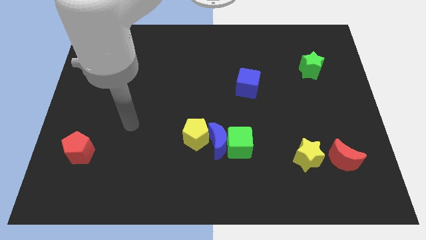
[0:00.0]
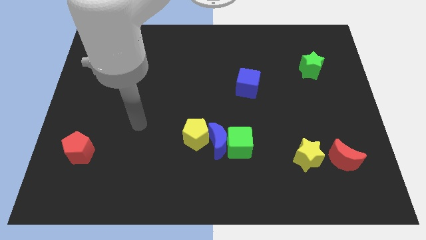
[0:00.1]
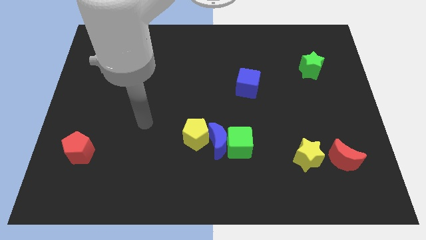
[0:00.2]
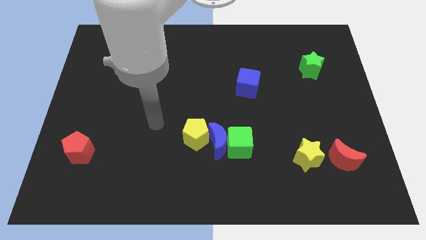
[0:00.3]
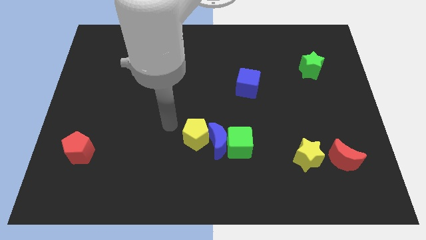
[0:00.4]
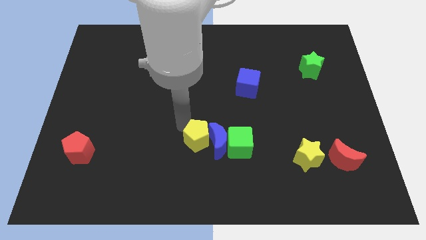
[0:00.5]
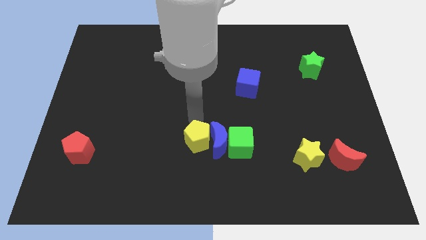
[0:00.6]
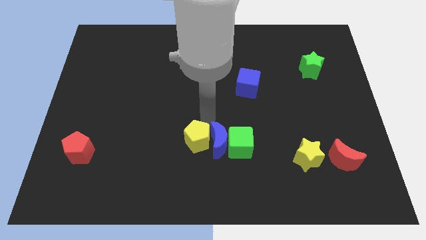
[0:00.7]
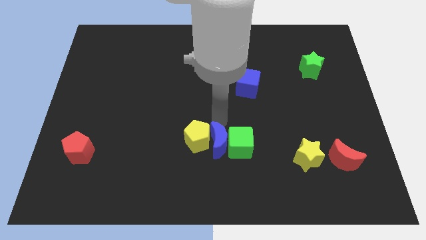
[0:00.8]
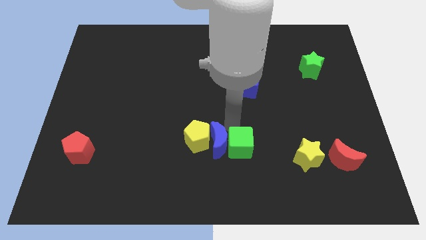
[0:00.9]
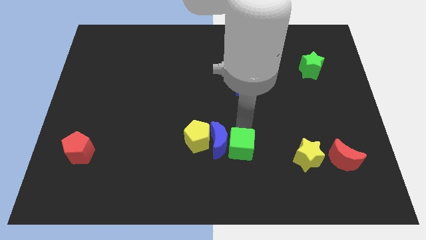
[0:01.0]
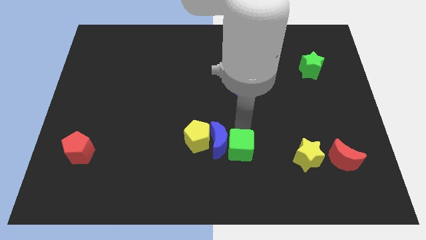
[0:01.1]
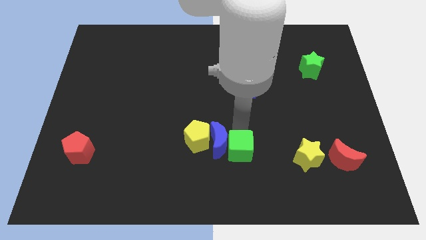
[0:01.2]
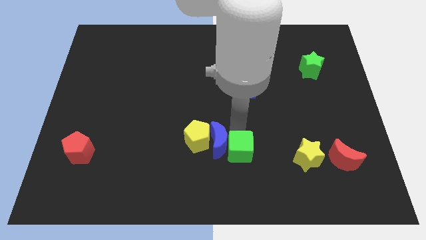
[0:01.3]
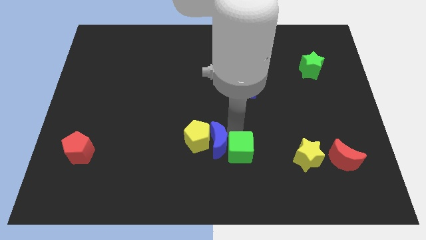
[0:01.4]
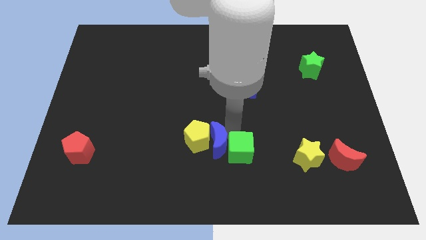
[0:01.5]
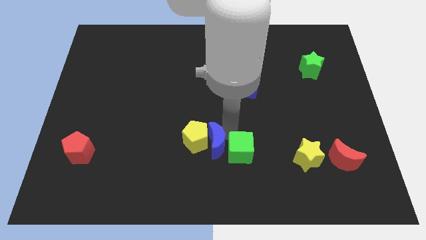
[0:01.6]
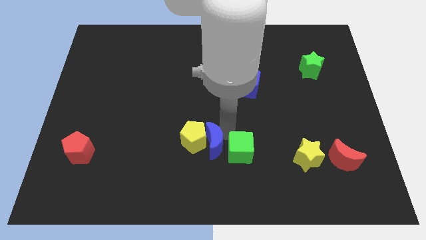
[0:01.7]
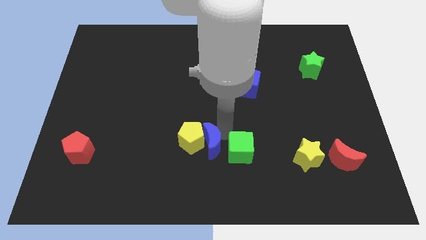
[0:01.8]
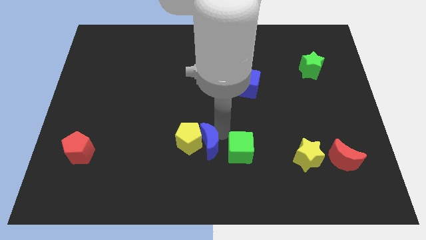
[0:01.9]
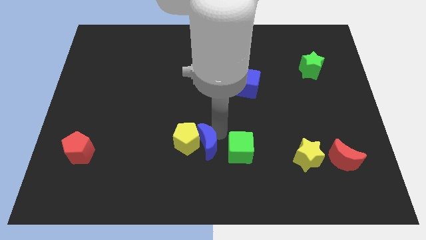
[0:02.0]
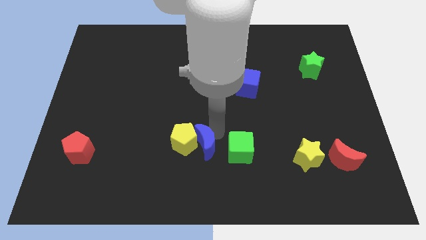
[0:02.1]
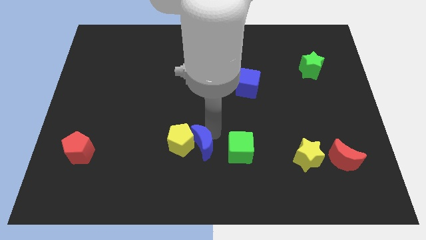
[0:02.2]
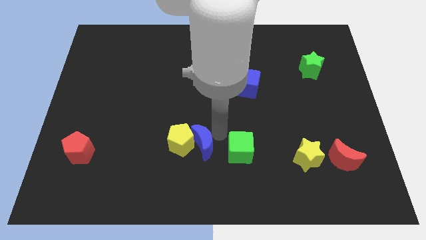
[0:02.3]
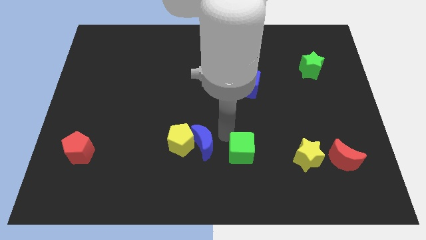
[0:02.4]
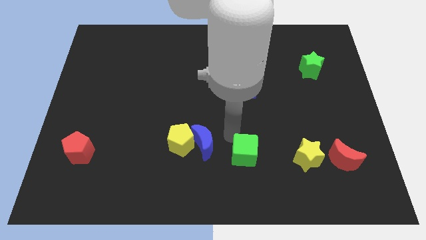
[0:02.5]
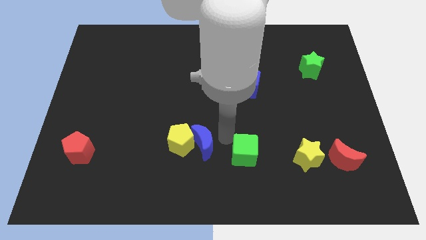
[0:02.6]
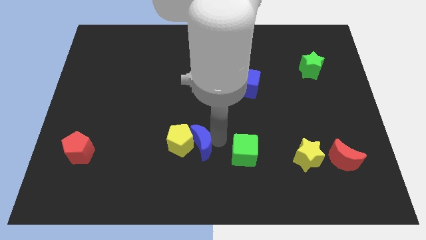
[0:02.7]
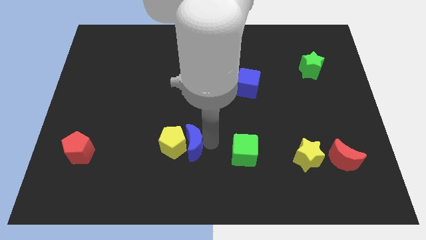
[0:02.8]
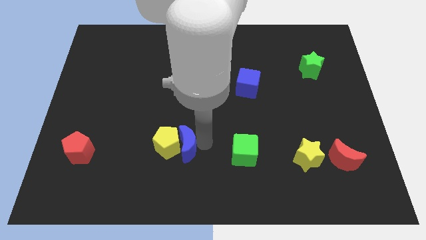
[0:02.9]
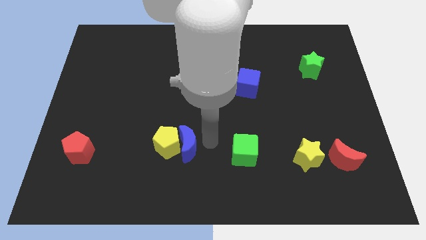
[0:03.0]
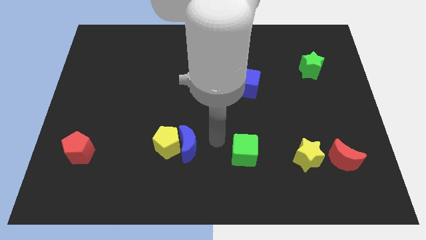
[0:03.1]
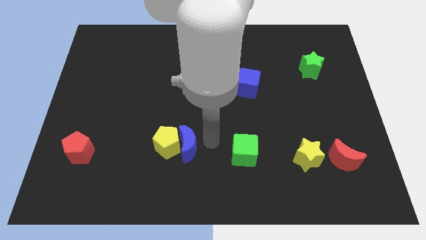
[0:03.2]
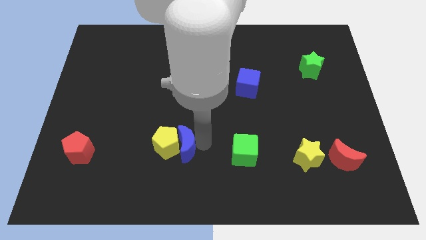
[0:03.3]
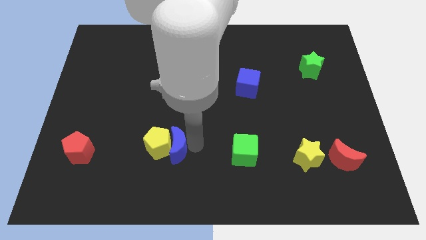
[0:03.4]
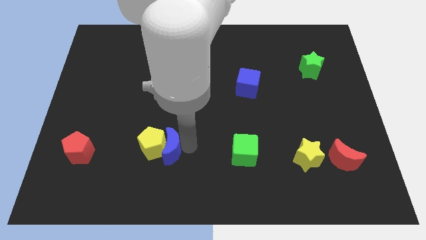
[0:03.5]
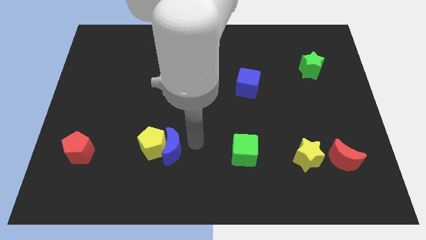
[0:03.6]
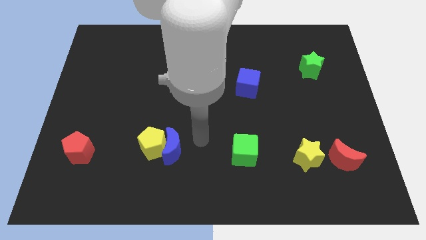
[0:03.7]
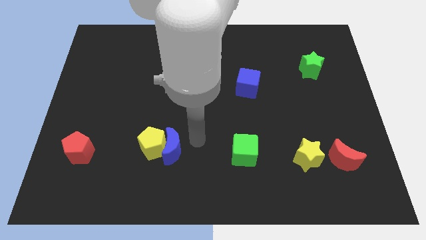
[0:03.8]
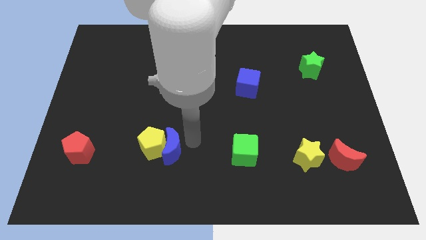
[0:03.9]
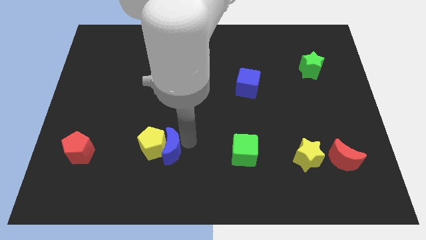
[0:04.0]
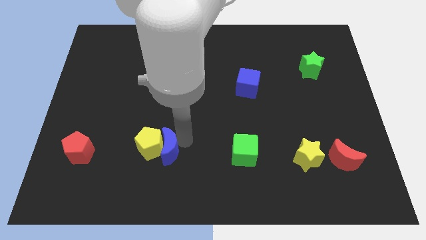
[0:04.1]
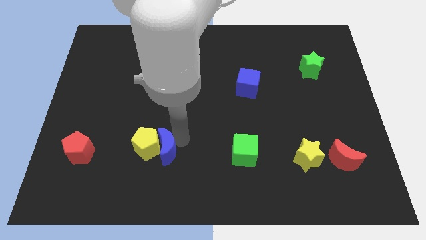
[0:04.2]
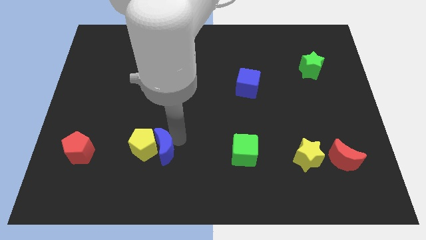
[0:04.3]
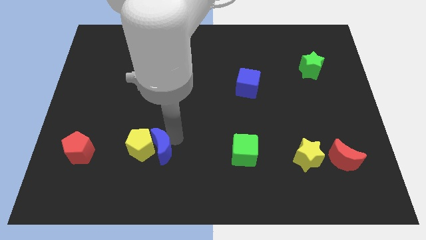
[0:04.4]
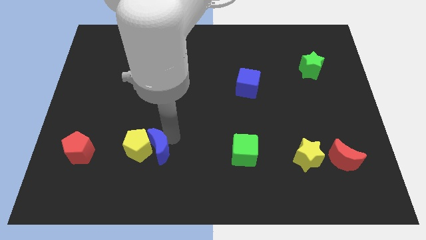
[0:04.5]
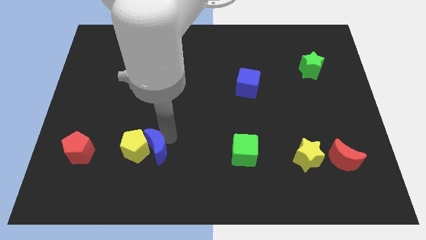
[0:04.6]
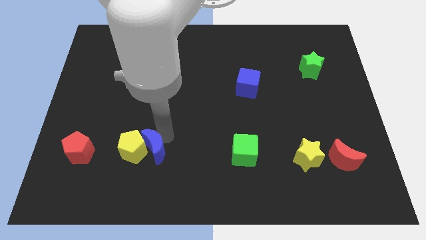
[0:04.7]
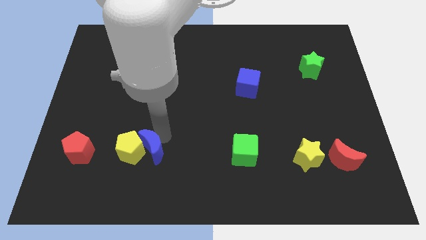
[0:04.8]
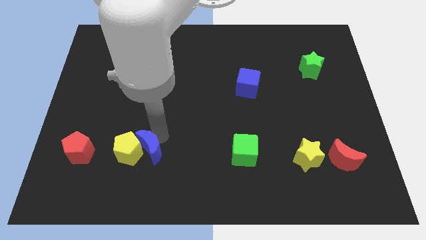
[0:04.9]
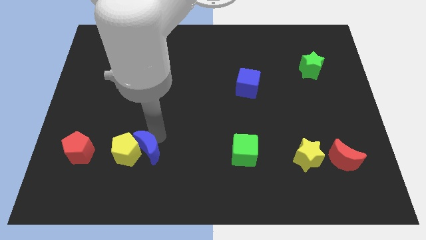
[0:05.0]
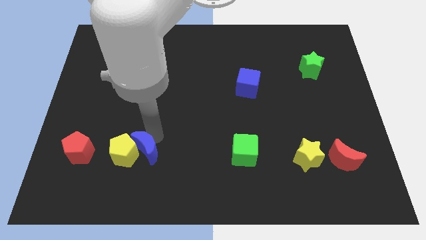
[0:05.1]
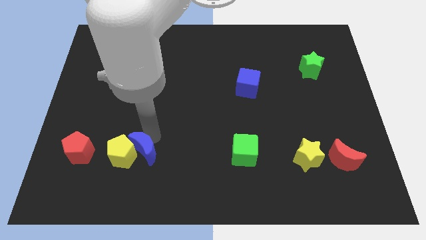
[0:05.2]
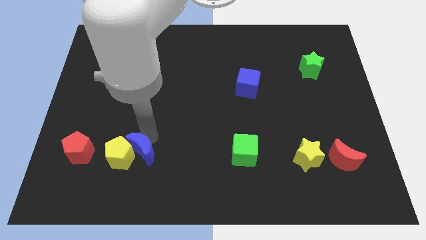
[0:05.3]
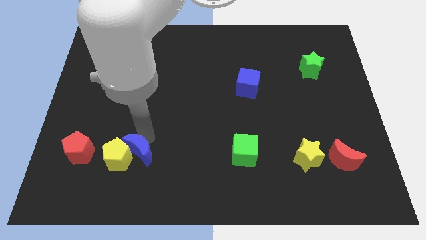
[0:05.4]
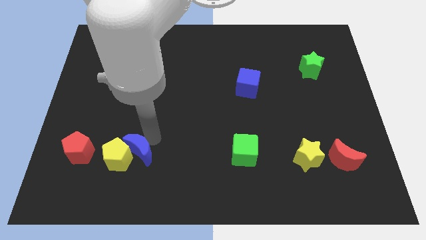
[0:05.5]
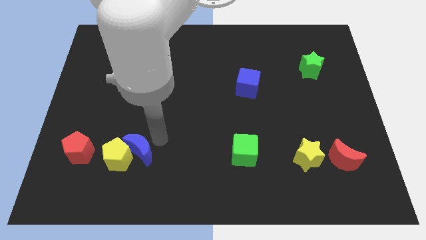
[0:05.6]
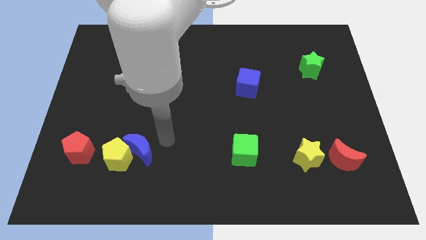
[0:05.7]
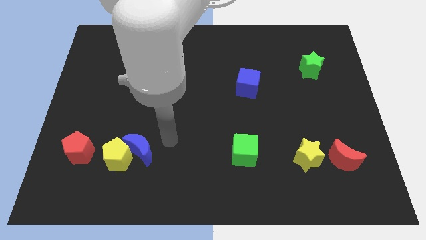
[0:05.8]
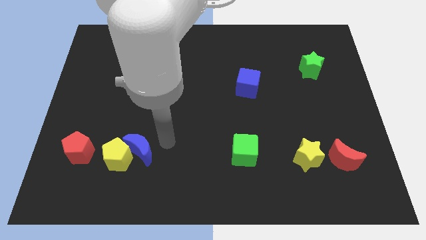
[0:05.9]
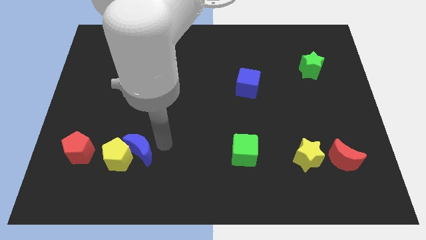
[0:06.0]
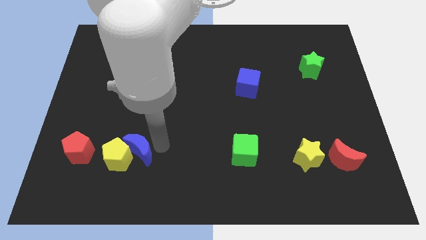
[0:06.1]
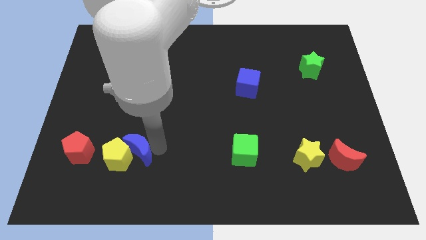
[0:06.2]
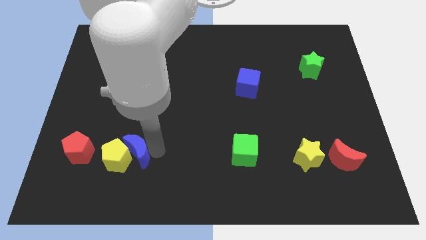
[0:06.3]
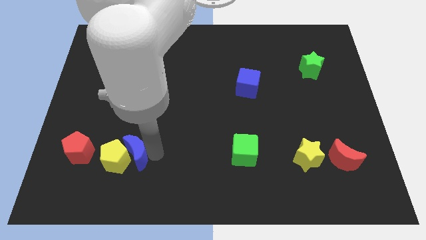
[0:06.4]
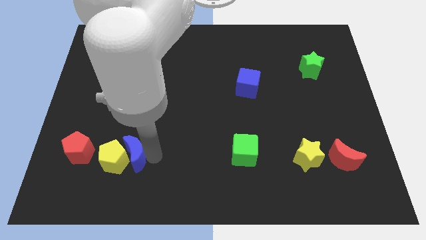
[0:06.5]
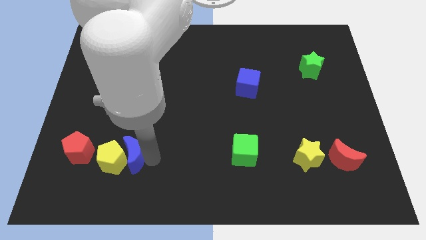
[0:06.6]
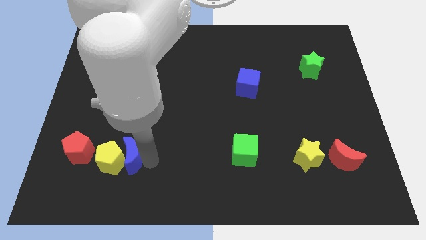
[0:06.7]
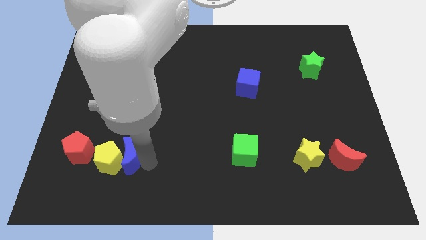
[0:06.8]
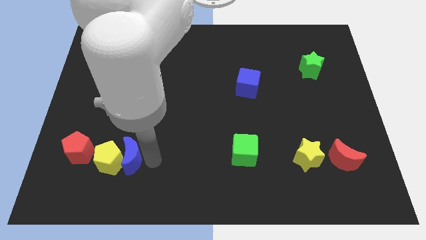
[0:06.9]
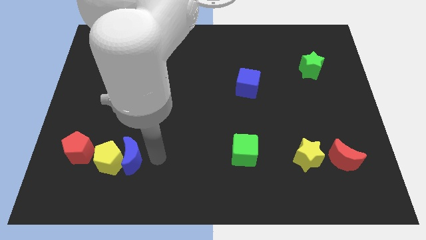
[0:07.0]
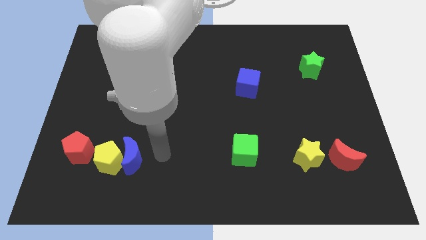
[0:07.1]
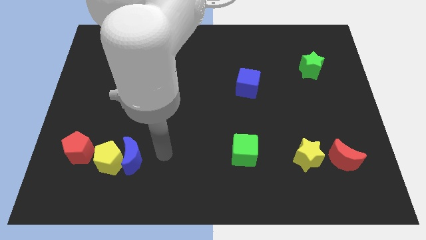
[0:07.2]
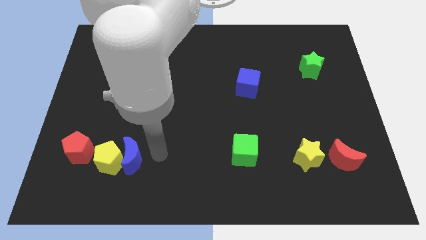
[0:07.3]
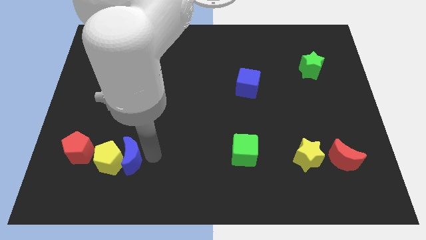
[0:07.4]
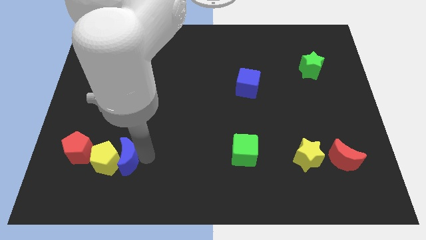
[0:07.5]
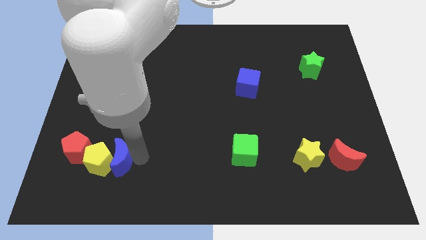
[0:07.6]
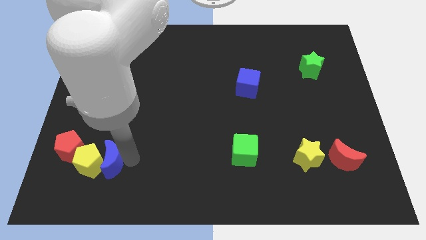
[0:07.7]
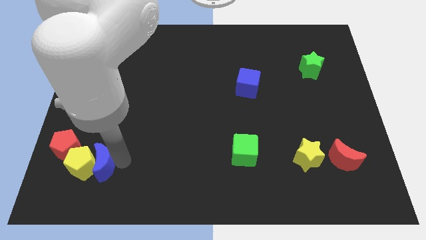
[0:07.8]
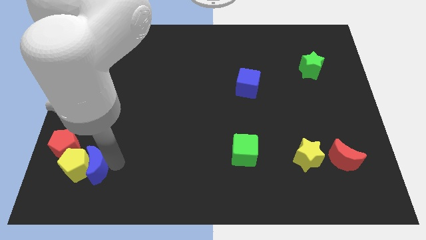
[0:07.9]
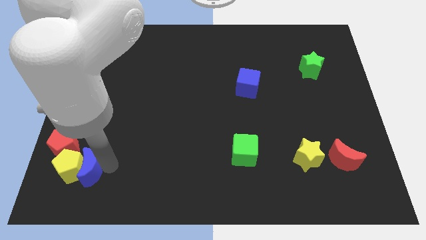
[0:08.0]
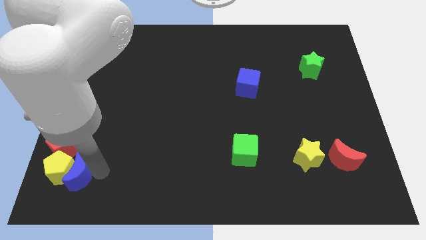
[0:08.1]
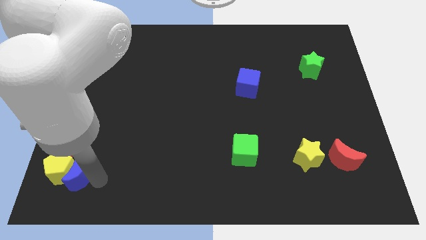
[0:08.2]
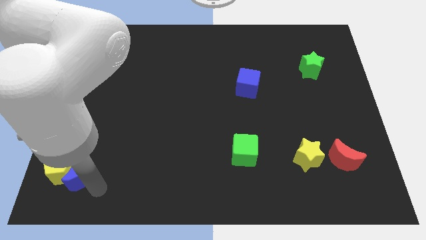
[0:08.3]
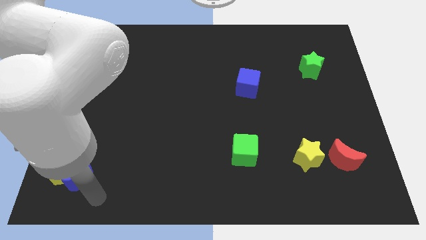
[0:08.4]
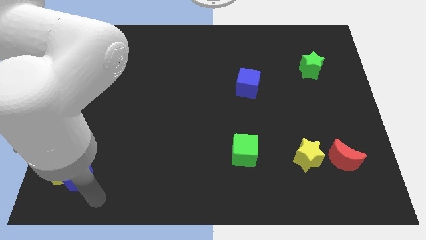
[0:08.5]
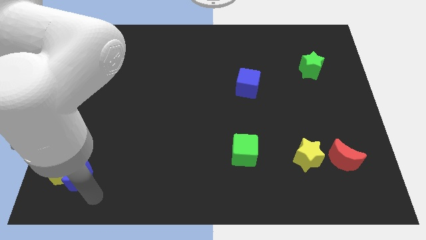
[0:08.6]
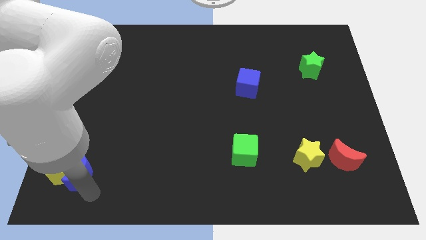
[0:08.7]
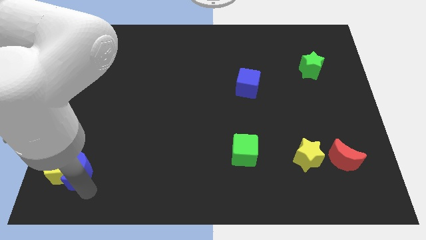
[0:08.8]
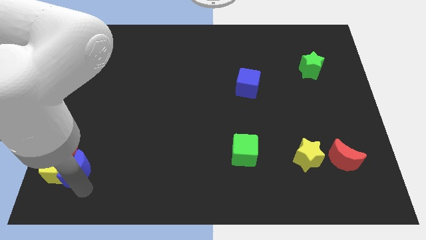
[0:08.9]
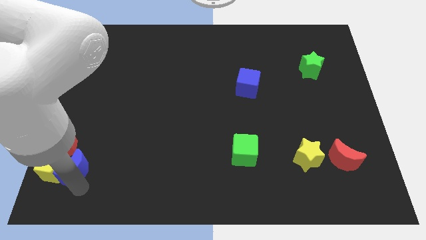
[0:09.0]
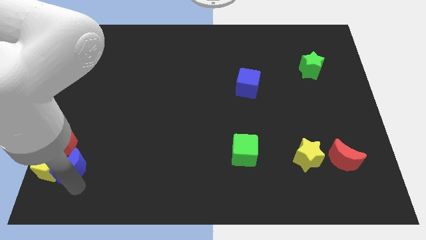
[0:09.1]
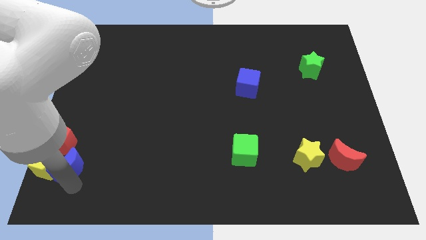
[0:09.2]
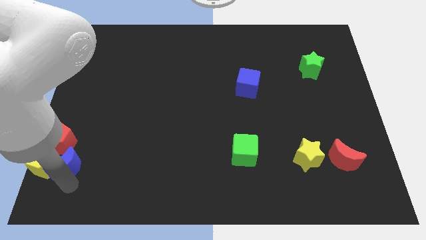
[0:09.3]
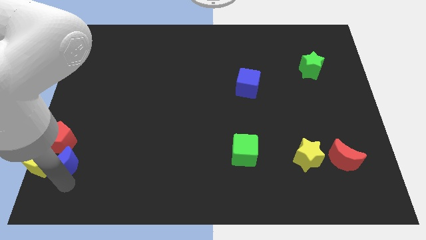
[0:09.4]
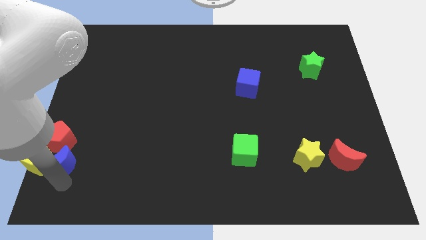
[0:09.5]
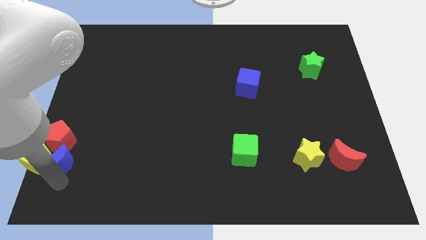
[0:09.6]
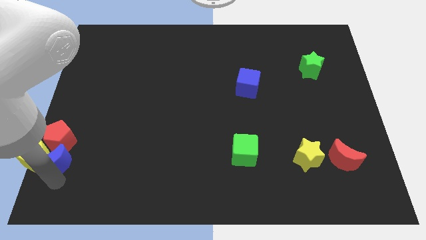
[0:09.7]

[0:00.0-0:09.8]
slide the blue moon towards the red pentagon
